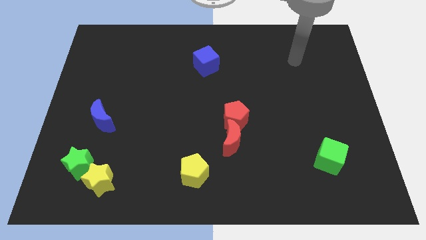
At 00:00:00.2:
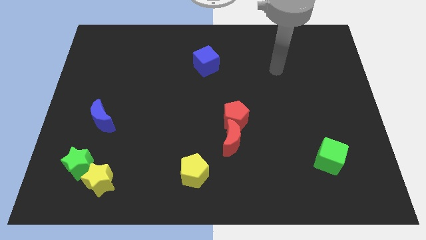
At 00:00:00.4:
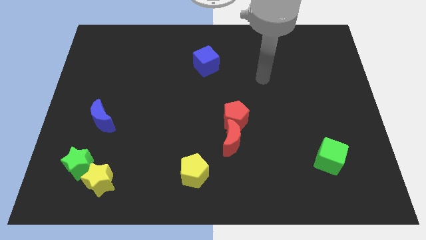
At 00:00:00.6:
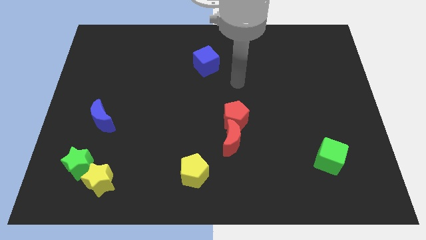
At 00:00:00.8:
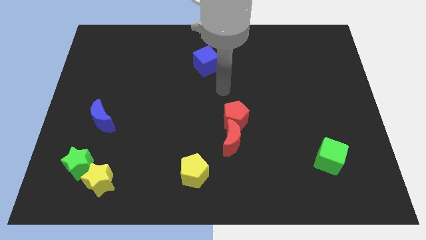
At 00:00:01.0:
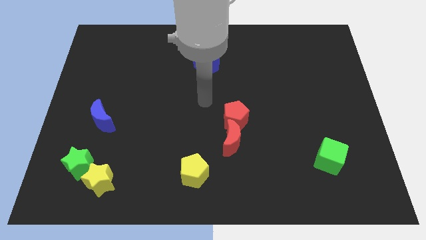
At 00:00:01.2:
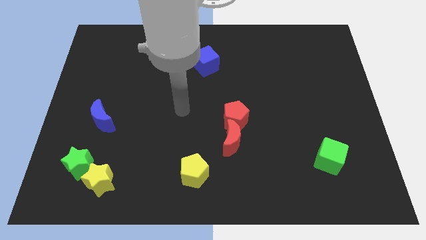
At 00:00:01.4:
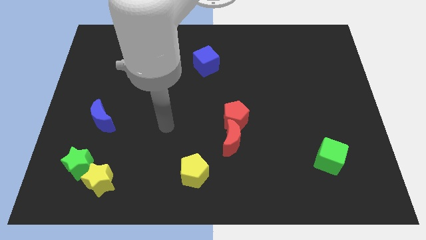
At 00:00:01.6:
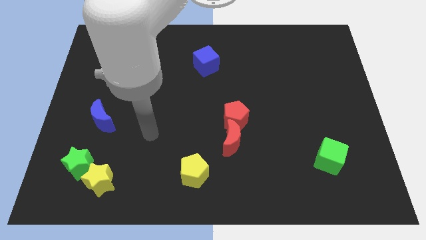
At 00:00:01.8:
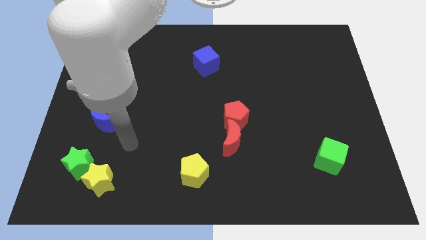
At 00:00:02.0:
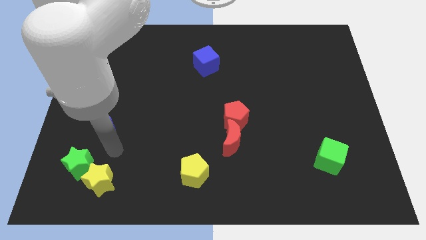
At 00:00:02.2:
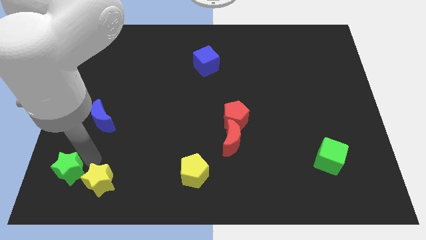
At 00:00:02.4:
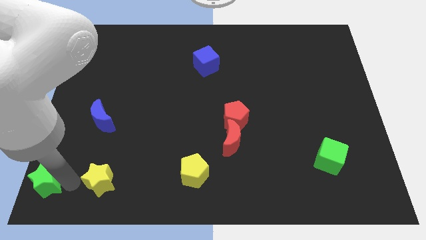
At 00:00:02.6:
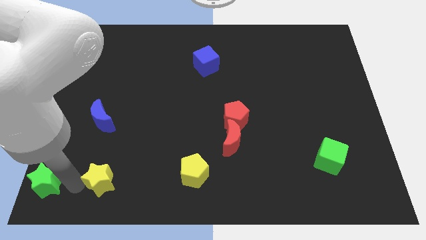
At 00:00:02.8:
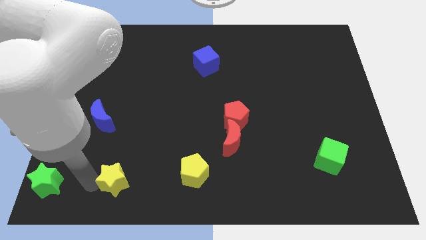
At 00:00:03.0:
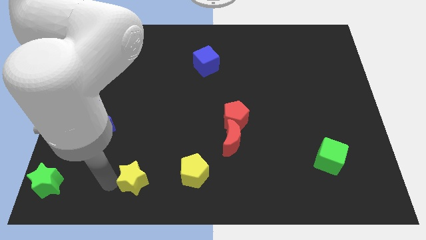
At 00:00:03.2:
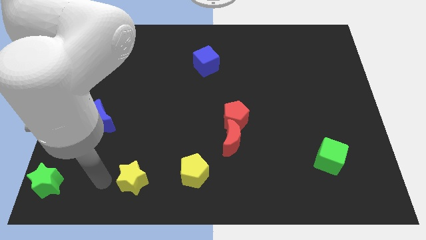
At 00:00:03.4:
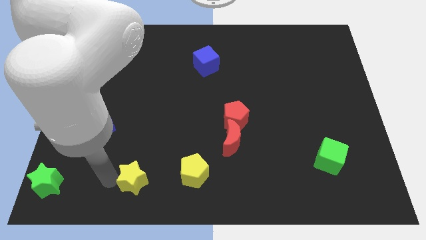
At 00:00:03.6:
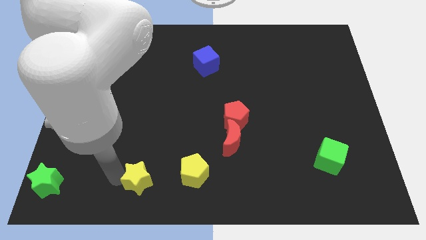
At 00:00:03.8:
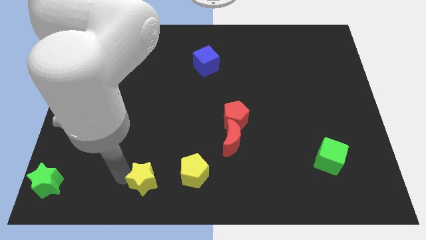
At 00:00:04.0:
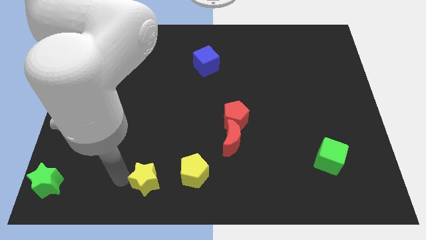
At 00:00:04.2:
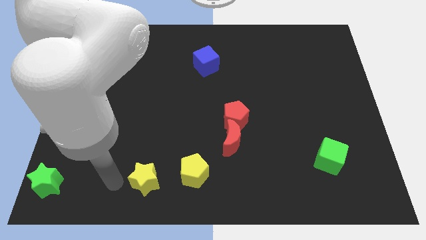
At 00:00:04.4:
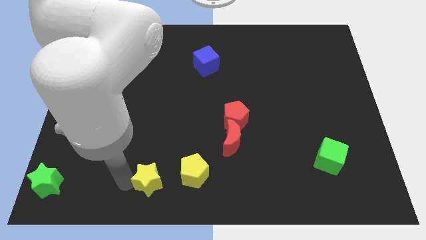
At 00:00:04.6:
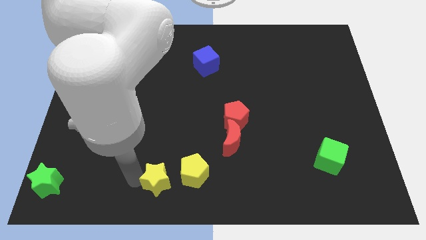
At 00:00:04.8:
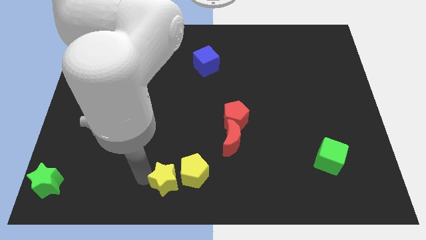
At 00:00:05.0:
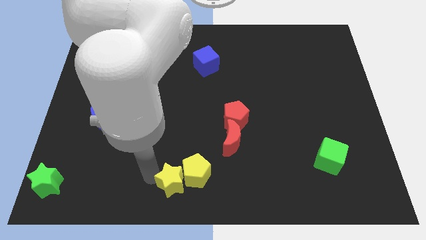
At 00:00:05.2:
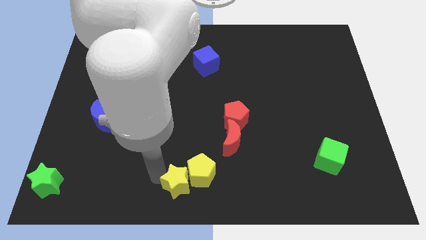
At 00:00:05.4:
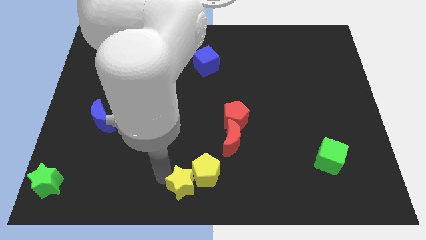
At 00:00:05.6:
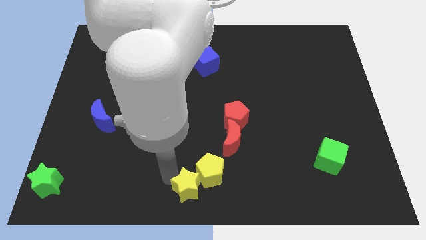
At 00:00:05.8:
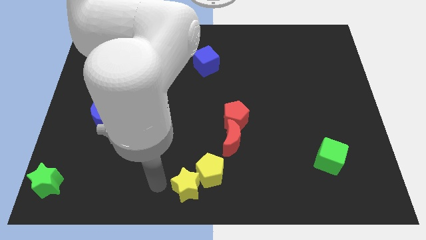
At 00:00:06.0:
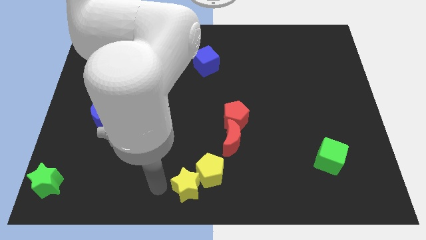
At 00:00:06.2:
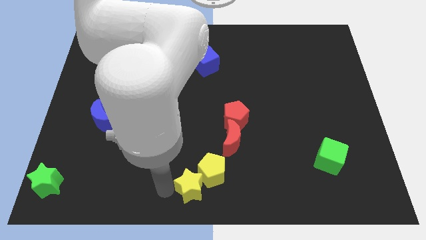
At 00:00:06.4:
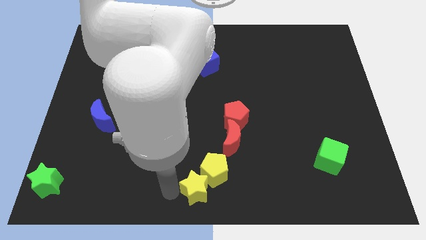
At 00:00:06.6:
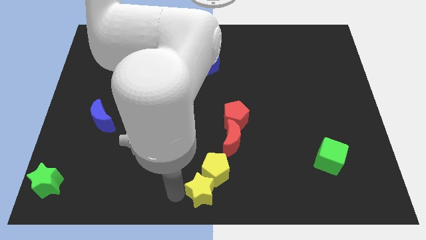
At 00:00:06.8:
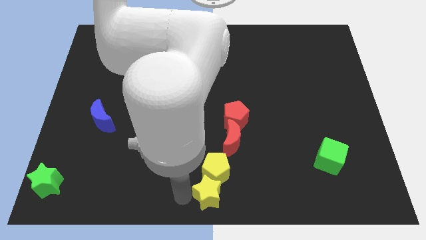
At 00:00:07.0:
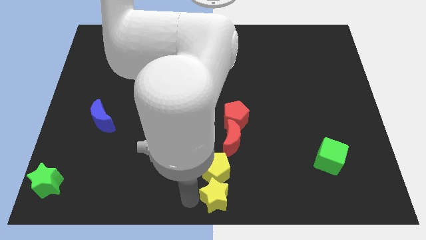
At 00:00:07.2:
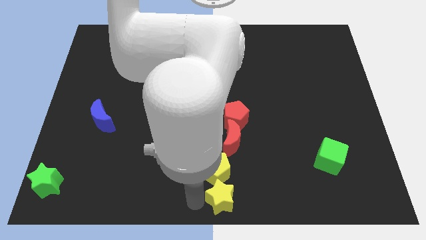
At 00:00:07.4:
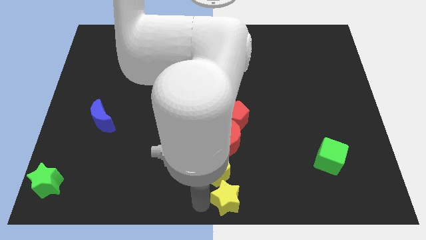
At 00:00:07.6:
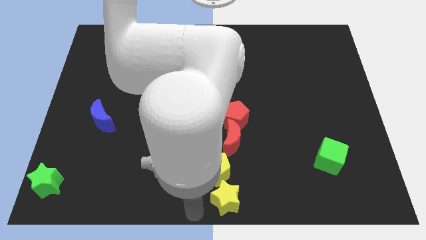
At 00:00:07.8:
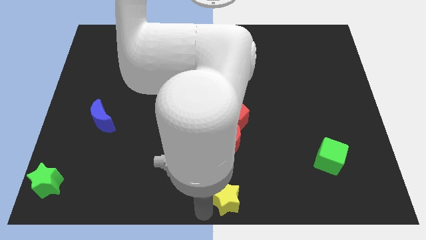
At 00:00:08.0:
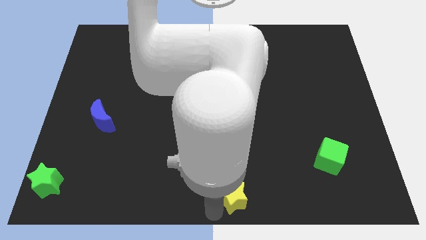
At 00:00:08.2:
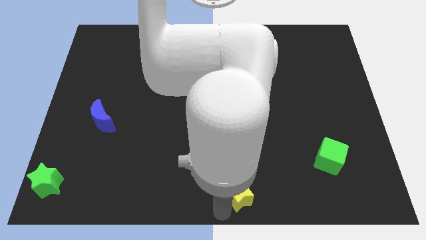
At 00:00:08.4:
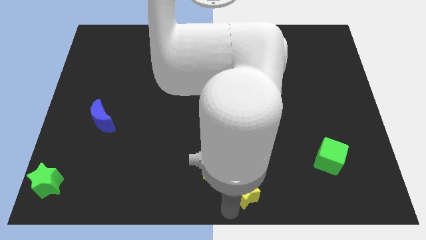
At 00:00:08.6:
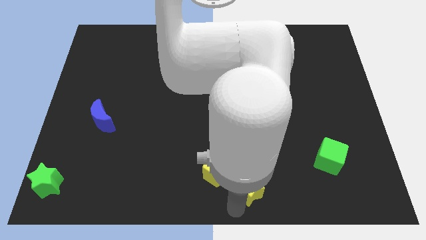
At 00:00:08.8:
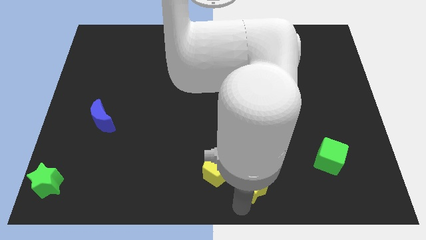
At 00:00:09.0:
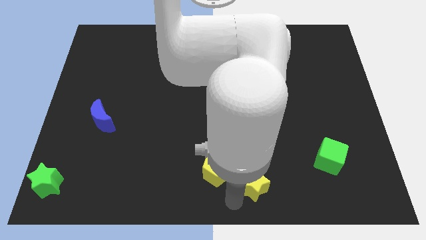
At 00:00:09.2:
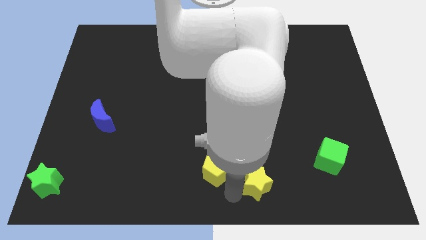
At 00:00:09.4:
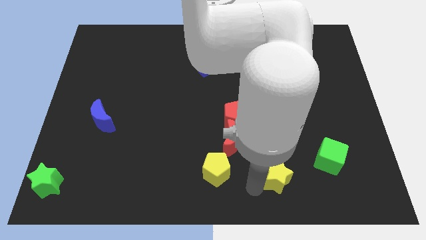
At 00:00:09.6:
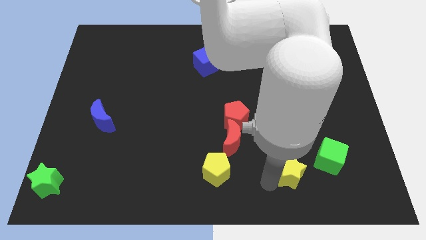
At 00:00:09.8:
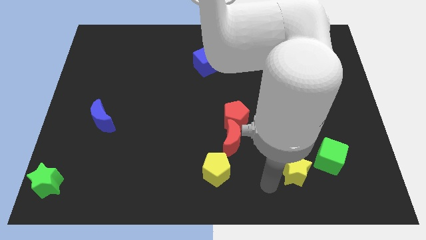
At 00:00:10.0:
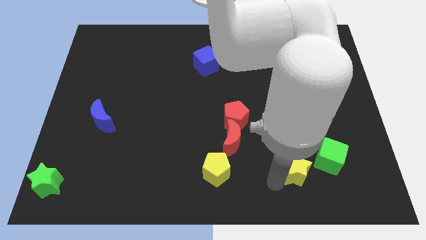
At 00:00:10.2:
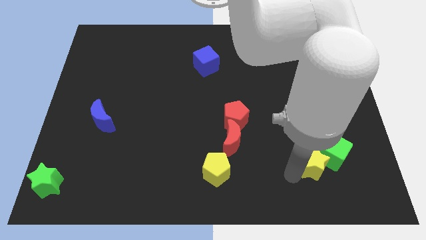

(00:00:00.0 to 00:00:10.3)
put the yellow star next to the green cube

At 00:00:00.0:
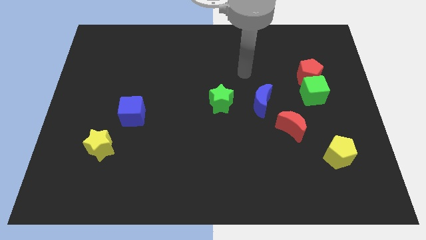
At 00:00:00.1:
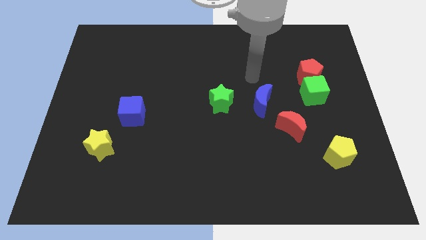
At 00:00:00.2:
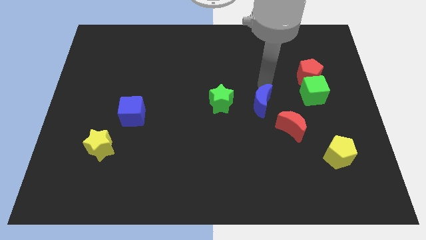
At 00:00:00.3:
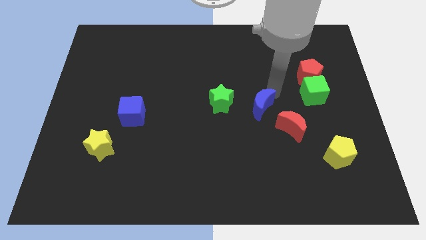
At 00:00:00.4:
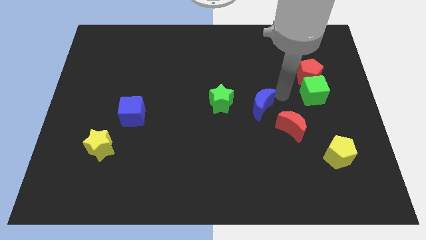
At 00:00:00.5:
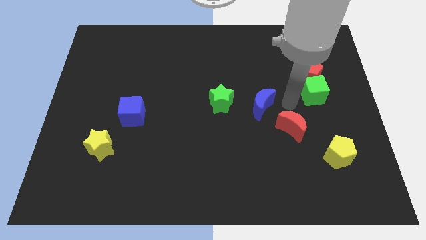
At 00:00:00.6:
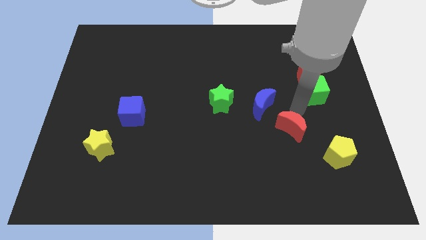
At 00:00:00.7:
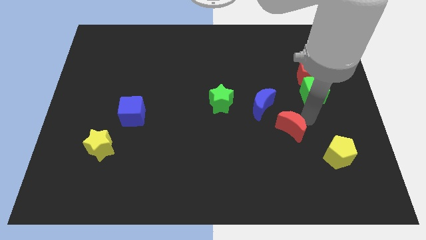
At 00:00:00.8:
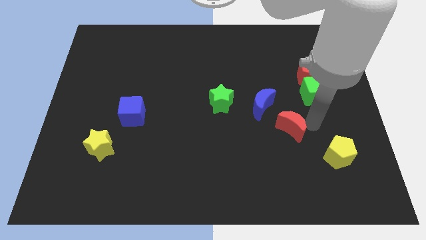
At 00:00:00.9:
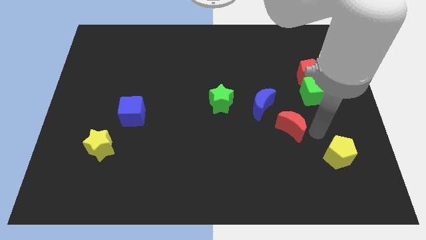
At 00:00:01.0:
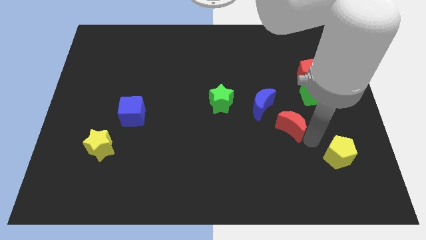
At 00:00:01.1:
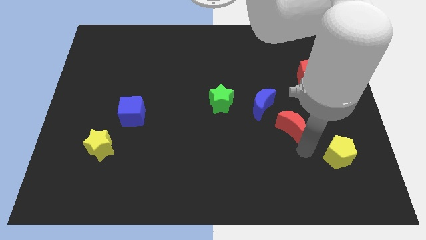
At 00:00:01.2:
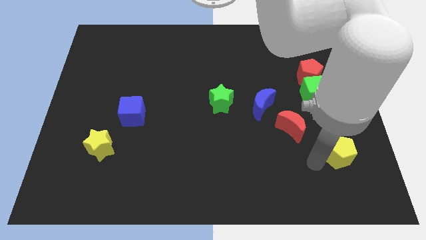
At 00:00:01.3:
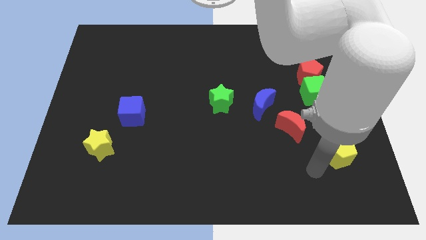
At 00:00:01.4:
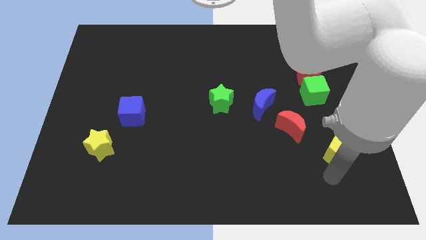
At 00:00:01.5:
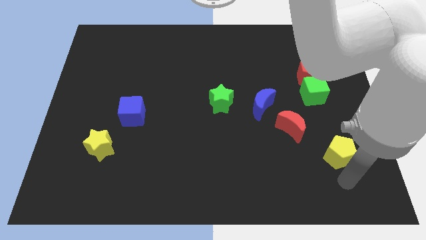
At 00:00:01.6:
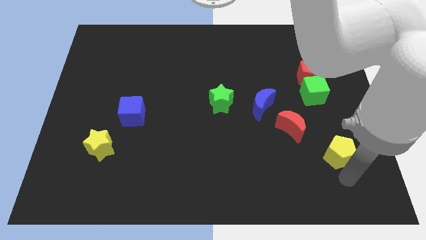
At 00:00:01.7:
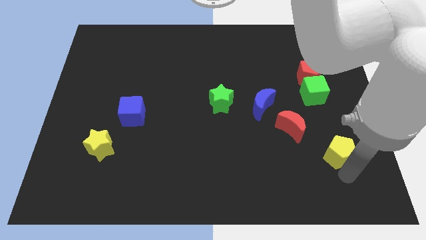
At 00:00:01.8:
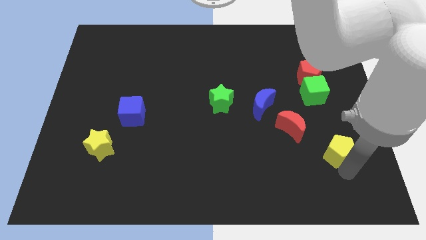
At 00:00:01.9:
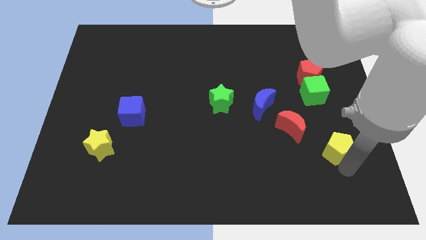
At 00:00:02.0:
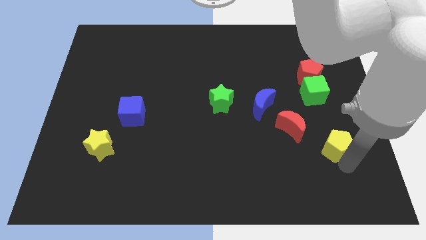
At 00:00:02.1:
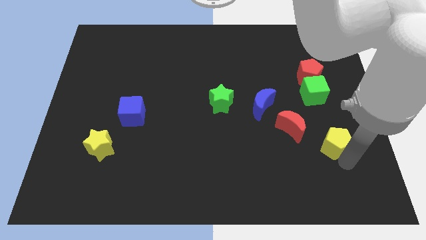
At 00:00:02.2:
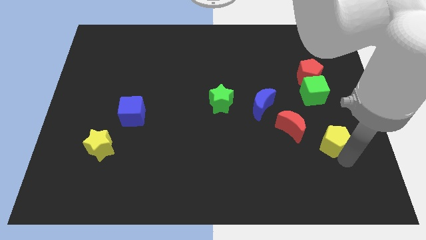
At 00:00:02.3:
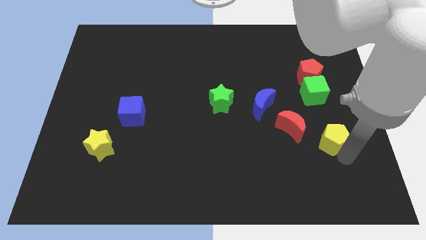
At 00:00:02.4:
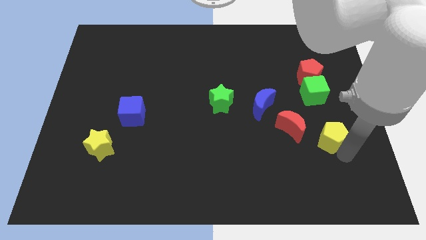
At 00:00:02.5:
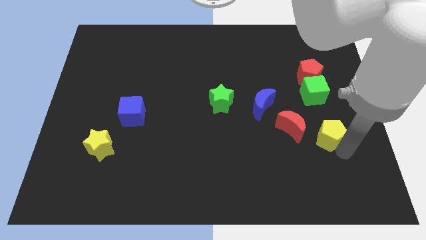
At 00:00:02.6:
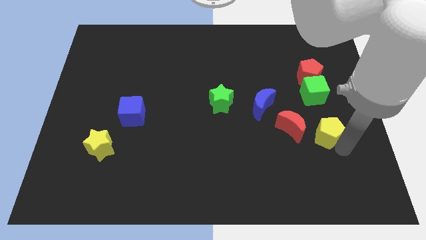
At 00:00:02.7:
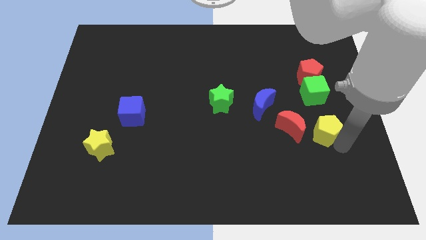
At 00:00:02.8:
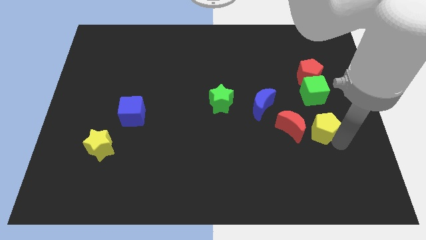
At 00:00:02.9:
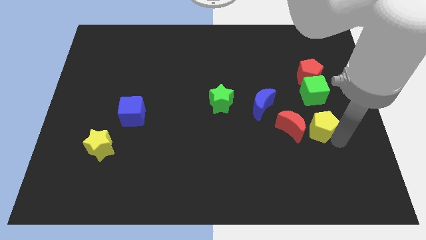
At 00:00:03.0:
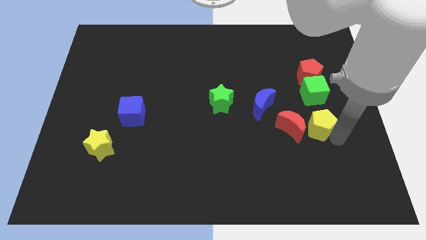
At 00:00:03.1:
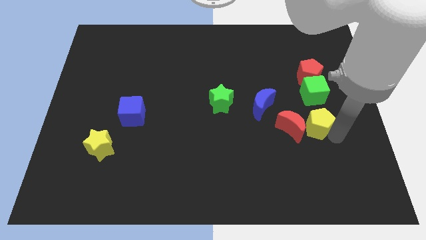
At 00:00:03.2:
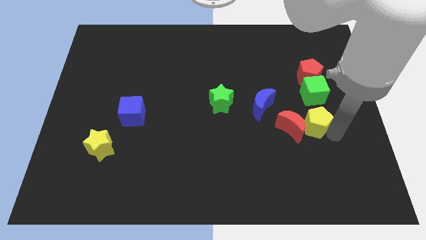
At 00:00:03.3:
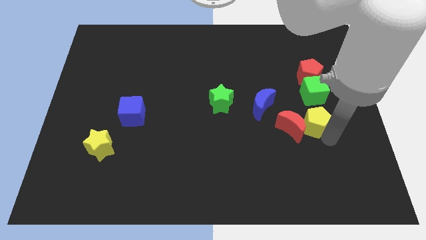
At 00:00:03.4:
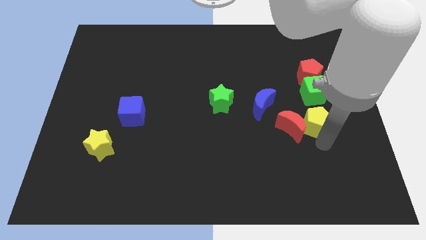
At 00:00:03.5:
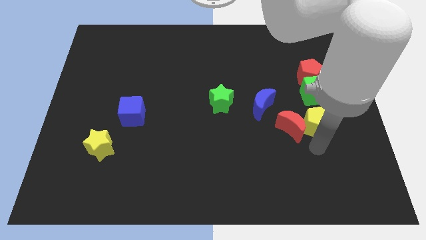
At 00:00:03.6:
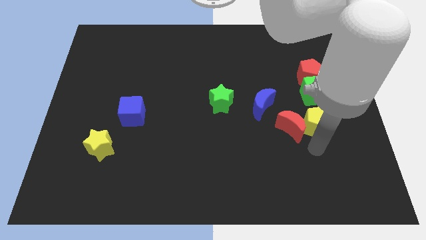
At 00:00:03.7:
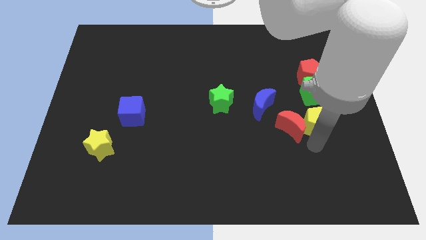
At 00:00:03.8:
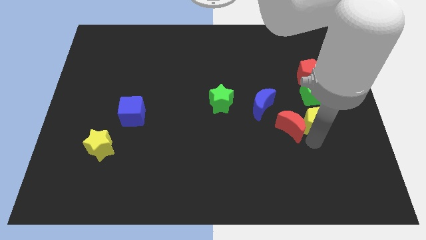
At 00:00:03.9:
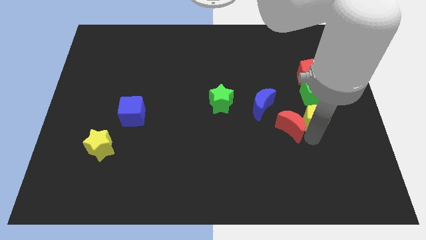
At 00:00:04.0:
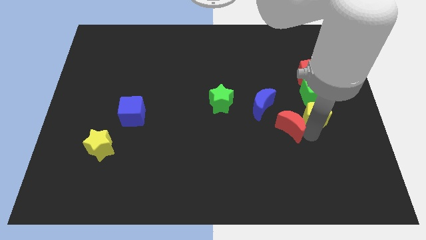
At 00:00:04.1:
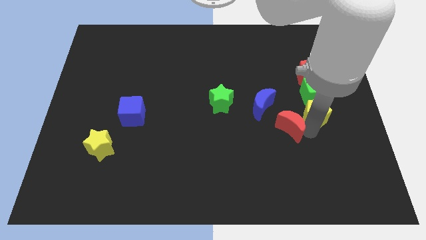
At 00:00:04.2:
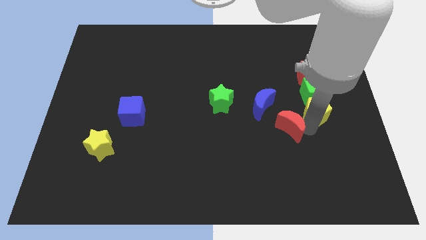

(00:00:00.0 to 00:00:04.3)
push the yellow pentagon close to the green cube
